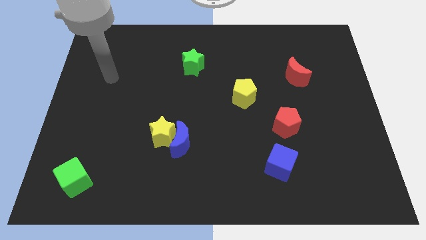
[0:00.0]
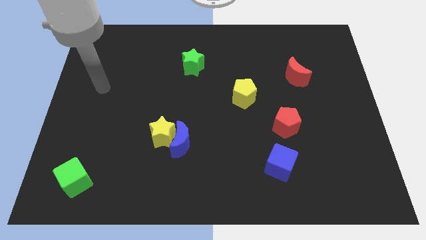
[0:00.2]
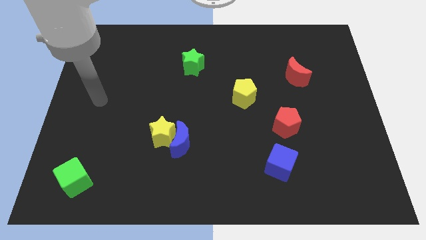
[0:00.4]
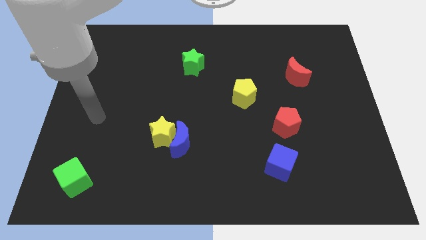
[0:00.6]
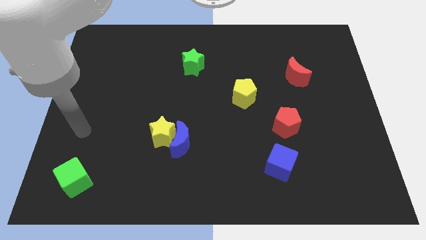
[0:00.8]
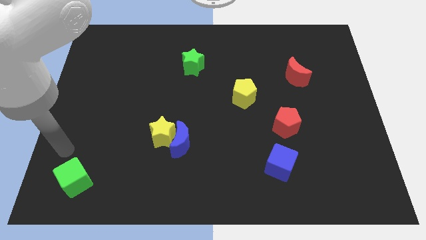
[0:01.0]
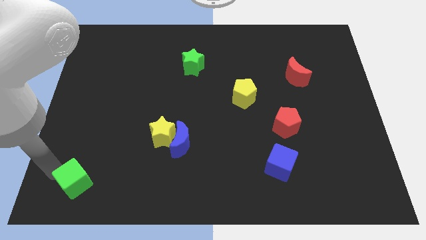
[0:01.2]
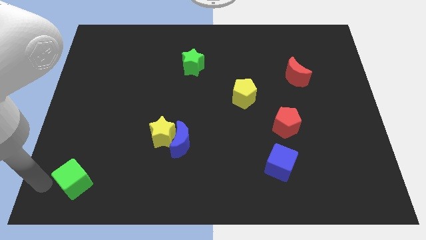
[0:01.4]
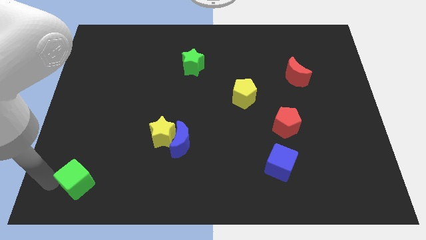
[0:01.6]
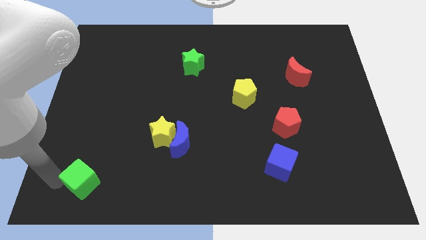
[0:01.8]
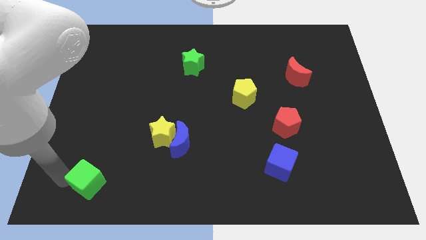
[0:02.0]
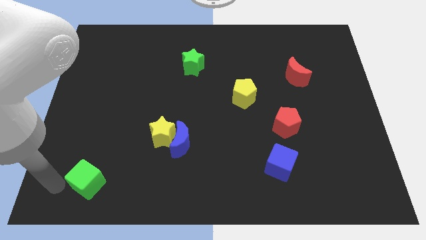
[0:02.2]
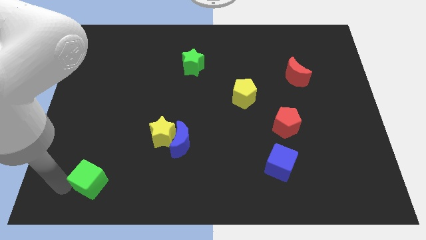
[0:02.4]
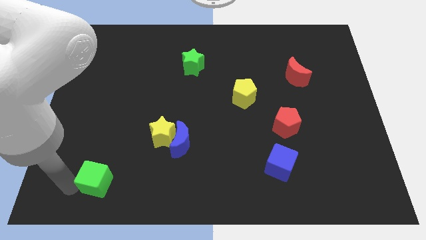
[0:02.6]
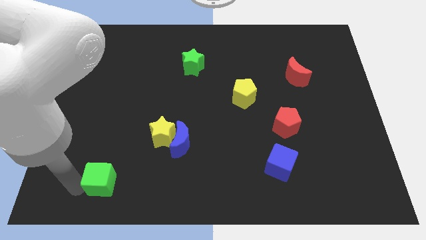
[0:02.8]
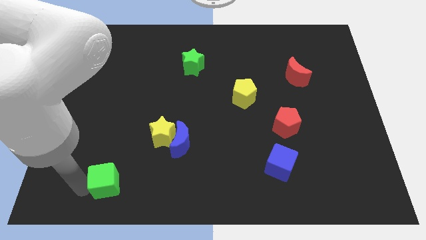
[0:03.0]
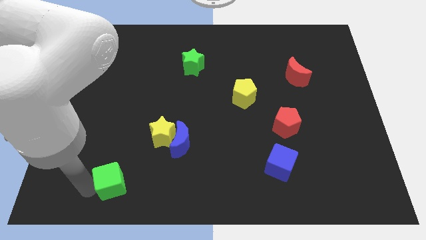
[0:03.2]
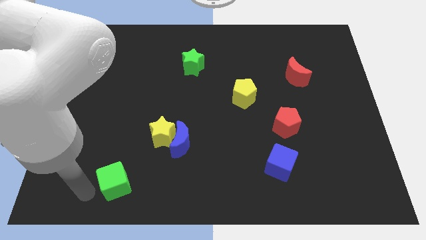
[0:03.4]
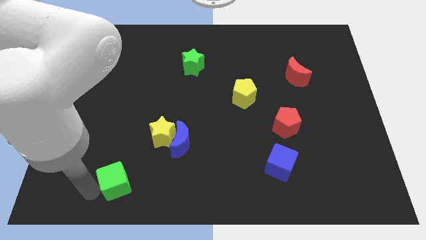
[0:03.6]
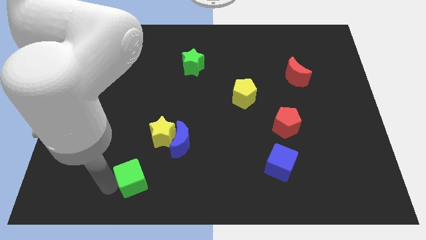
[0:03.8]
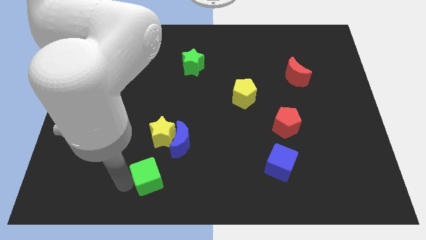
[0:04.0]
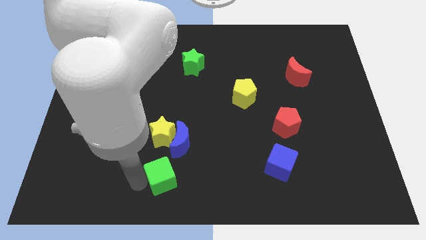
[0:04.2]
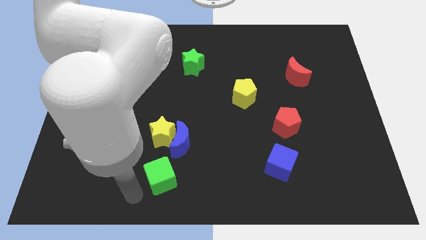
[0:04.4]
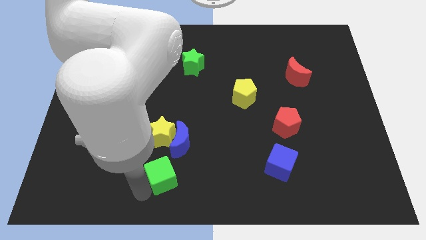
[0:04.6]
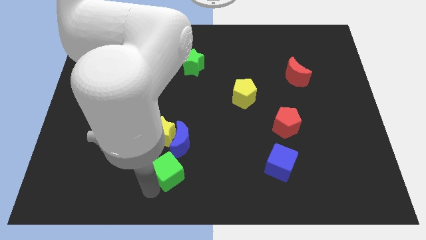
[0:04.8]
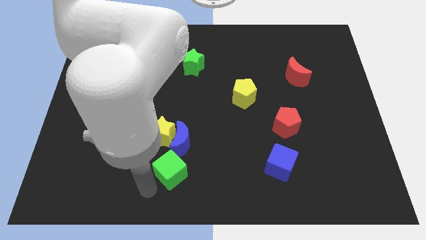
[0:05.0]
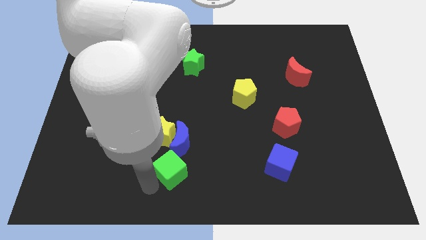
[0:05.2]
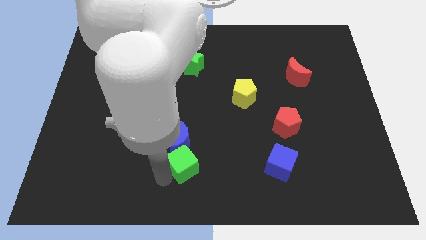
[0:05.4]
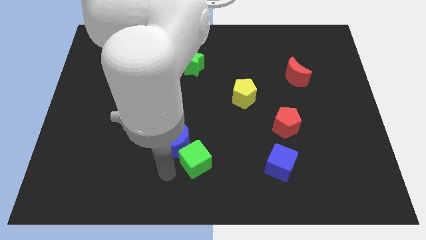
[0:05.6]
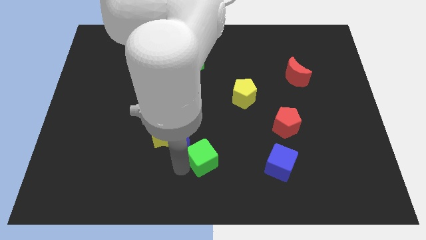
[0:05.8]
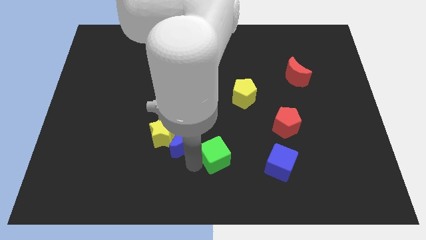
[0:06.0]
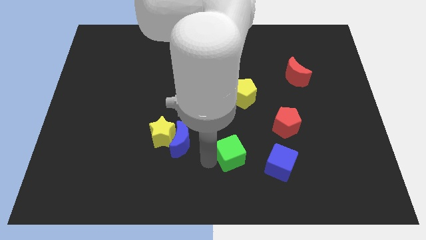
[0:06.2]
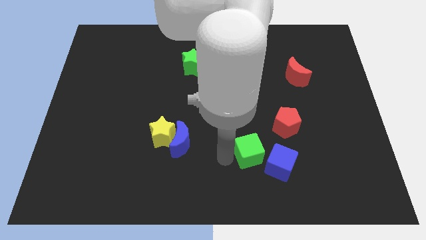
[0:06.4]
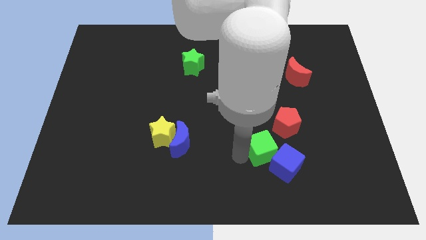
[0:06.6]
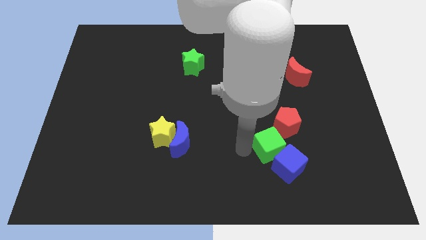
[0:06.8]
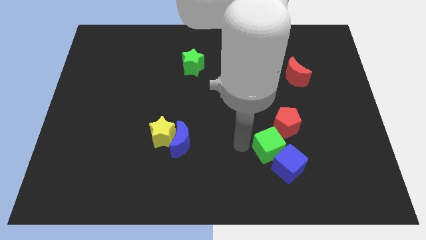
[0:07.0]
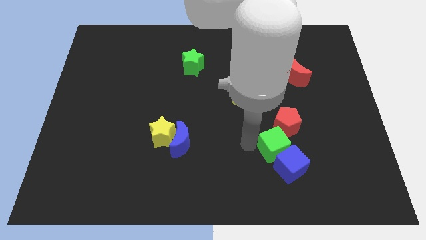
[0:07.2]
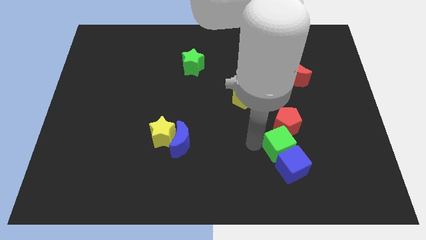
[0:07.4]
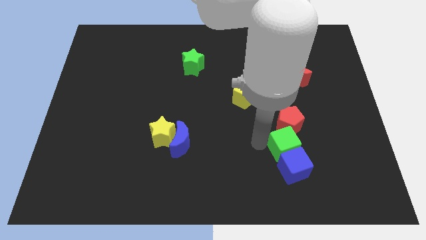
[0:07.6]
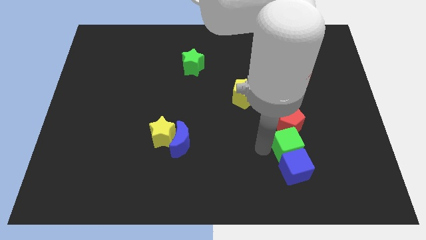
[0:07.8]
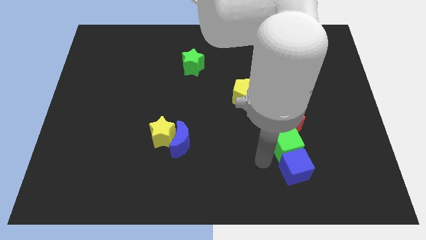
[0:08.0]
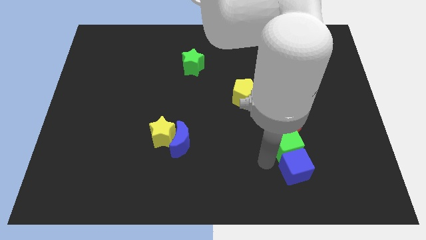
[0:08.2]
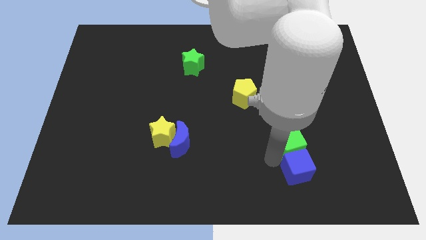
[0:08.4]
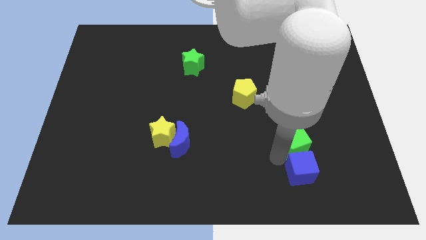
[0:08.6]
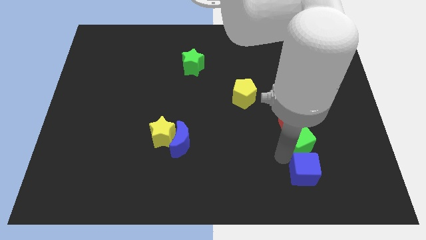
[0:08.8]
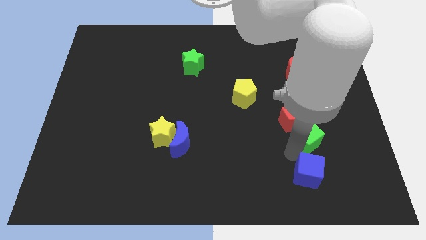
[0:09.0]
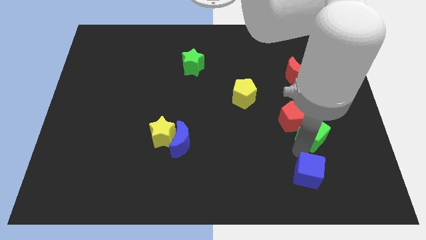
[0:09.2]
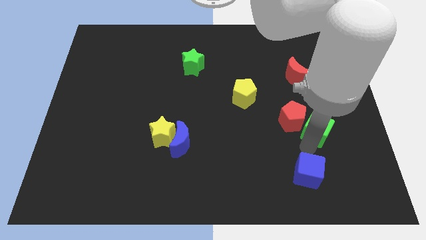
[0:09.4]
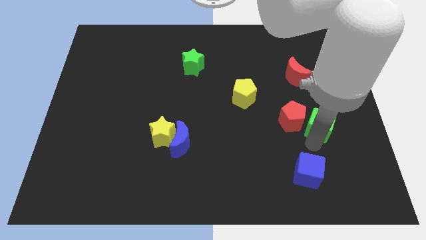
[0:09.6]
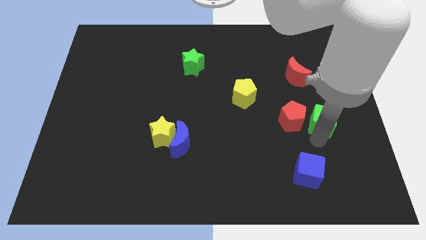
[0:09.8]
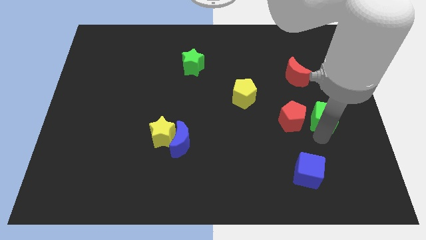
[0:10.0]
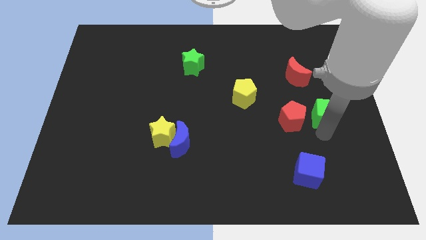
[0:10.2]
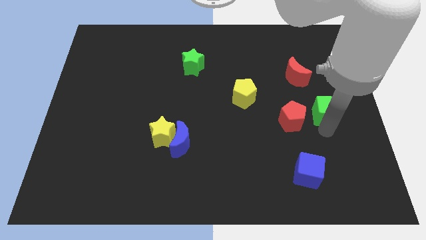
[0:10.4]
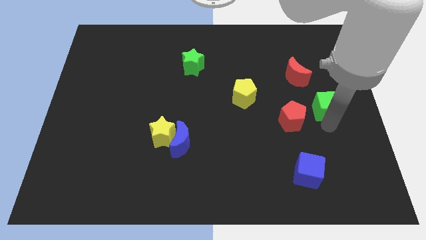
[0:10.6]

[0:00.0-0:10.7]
slide the green cube to the bottom right of the red moon

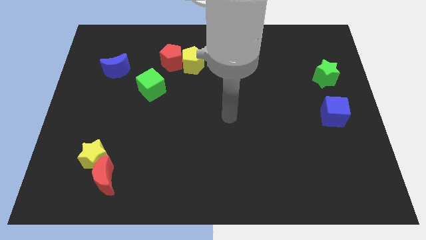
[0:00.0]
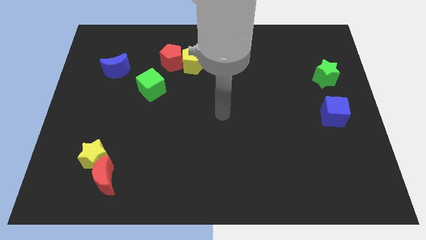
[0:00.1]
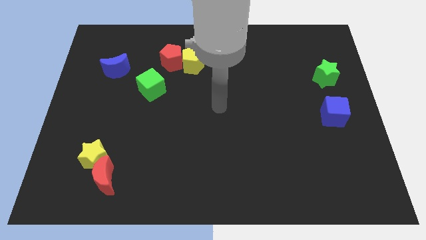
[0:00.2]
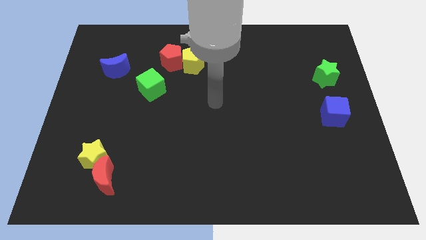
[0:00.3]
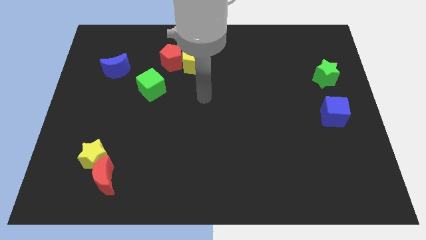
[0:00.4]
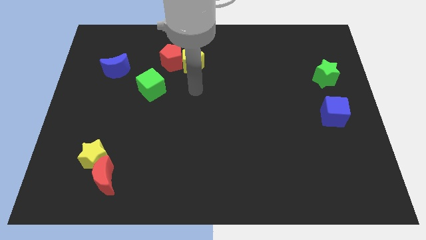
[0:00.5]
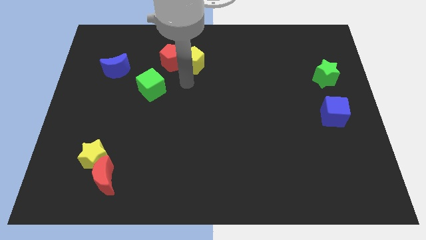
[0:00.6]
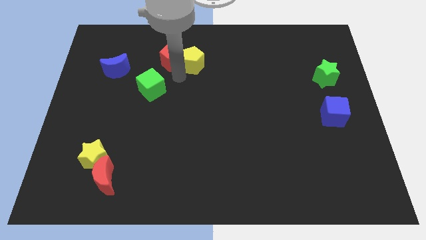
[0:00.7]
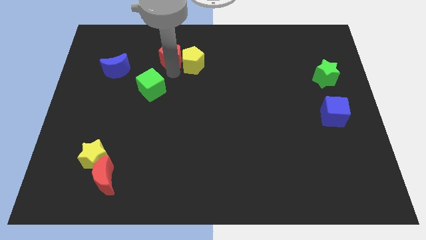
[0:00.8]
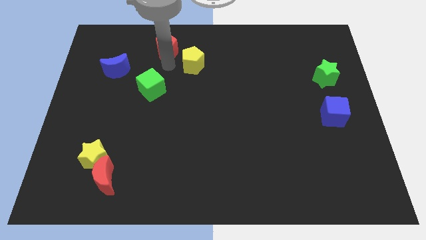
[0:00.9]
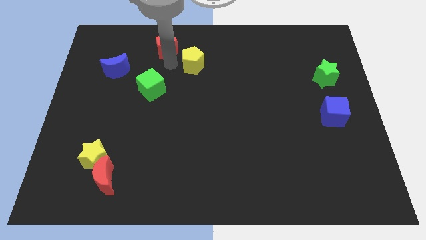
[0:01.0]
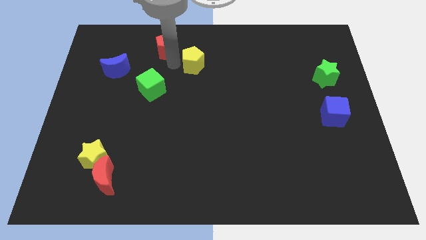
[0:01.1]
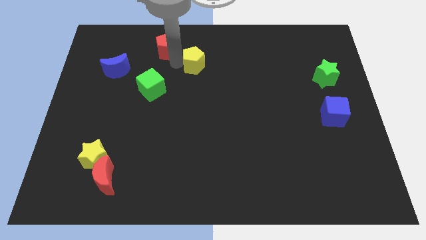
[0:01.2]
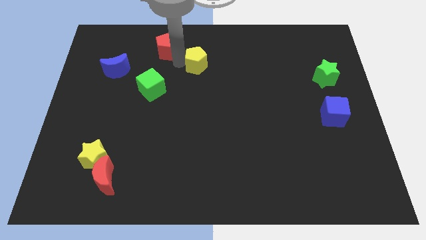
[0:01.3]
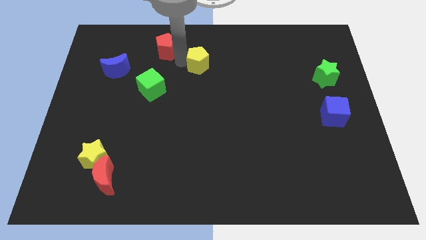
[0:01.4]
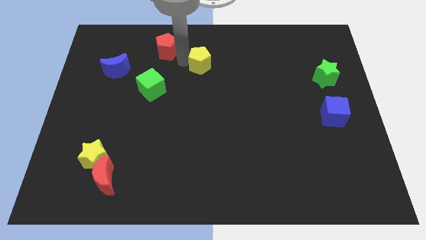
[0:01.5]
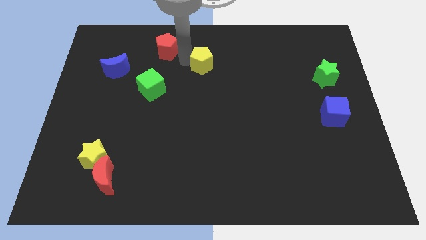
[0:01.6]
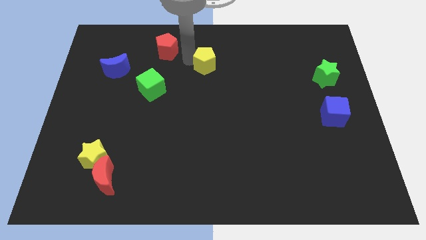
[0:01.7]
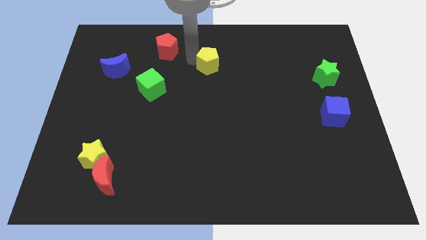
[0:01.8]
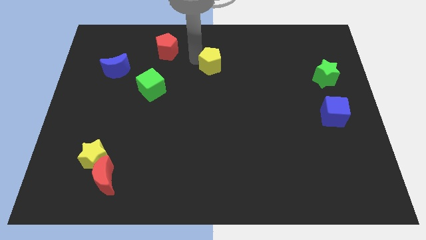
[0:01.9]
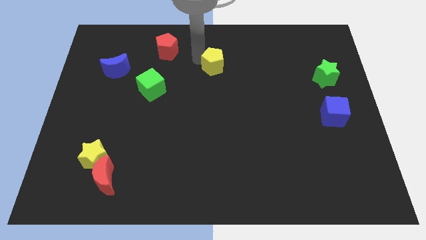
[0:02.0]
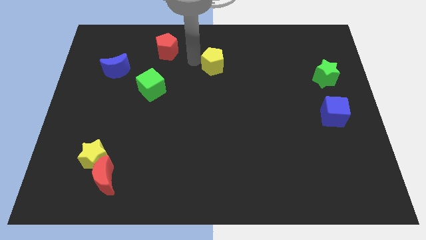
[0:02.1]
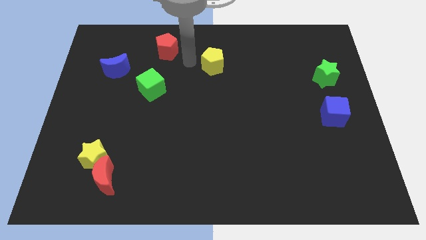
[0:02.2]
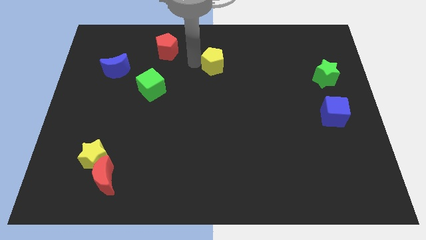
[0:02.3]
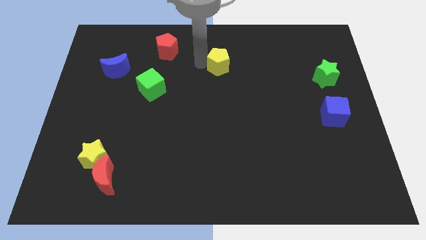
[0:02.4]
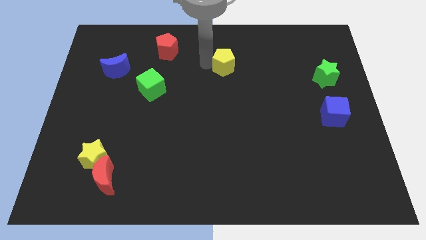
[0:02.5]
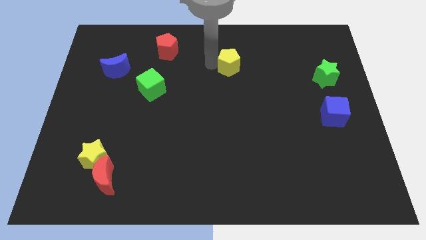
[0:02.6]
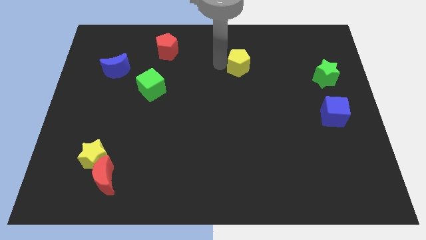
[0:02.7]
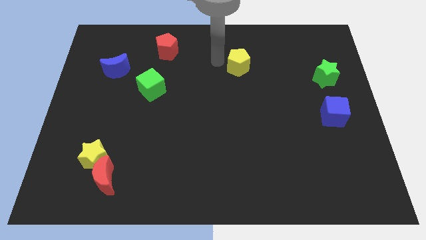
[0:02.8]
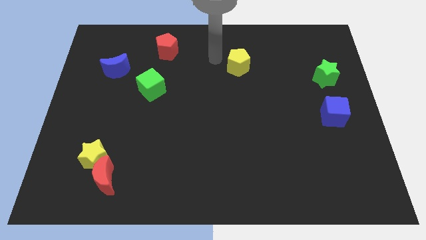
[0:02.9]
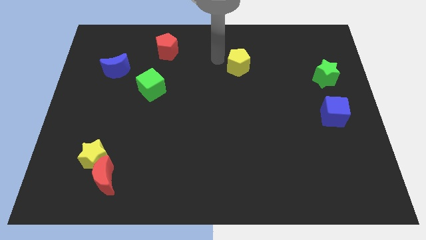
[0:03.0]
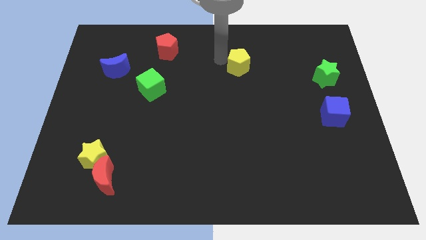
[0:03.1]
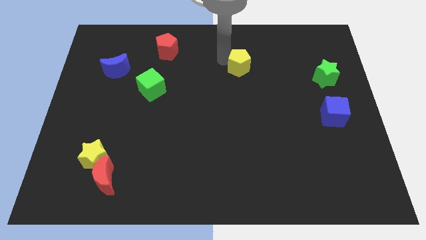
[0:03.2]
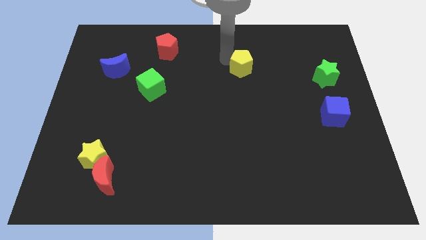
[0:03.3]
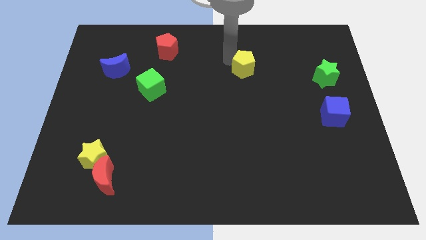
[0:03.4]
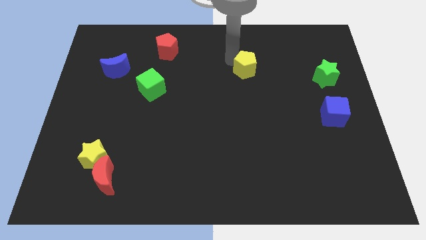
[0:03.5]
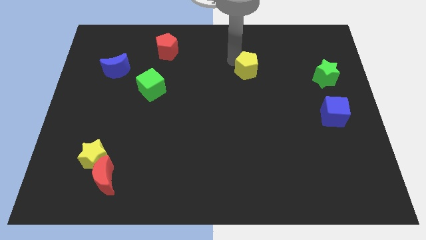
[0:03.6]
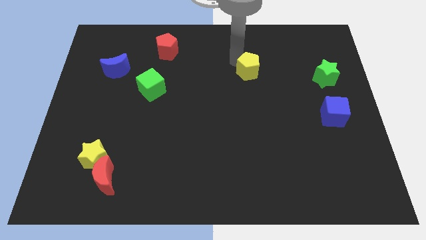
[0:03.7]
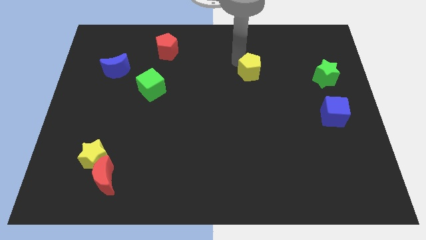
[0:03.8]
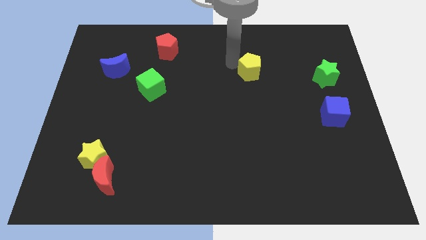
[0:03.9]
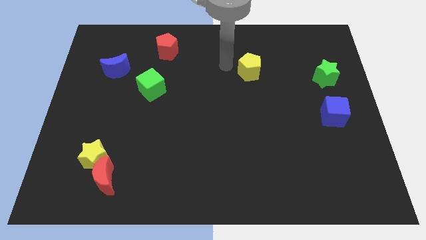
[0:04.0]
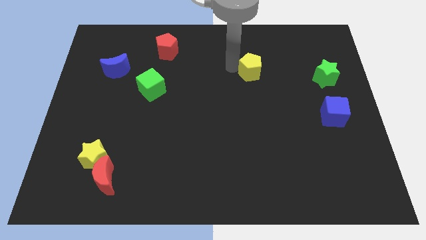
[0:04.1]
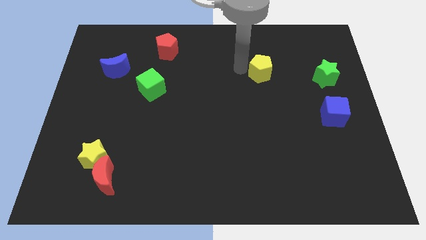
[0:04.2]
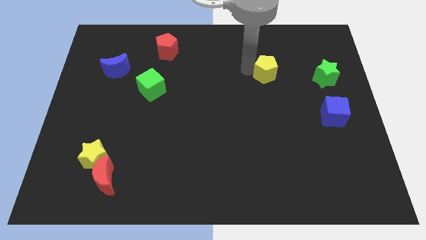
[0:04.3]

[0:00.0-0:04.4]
slide the yellow pentagon to the left side of the green star
